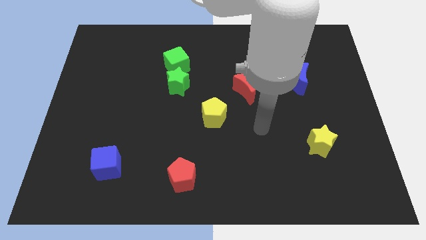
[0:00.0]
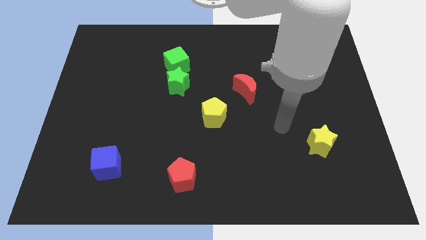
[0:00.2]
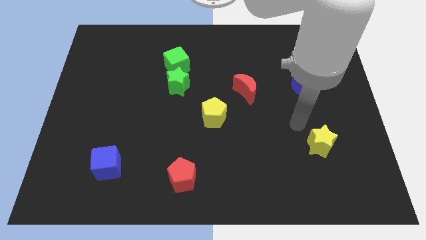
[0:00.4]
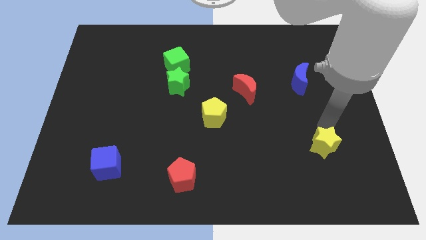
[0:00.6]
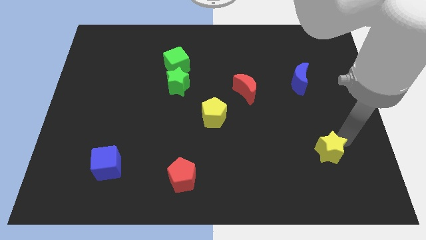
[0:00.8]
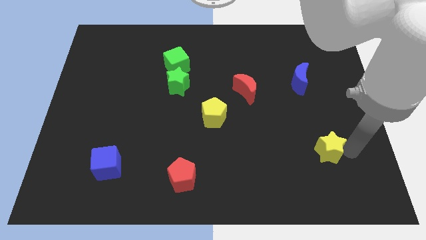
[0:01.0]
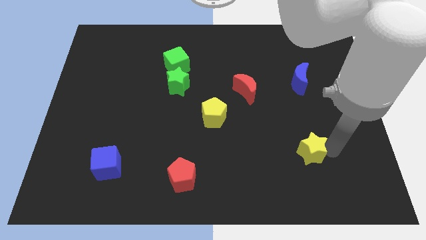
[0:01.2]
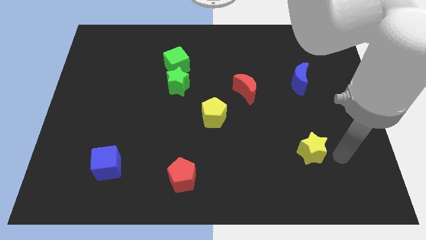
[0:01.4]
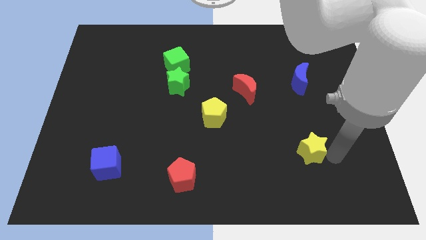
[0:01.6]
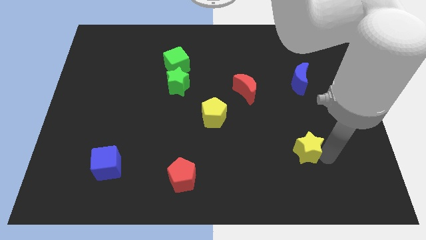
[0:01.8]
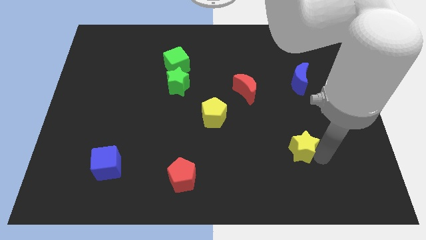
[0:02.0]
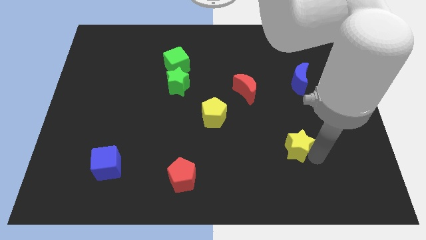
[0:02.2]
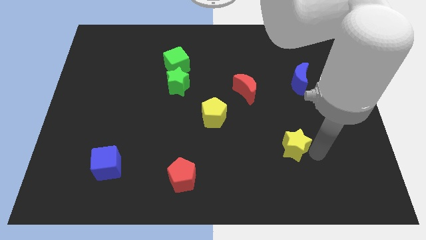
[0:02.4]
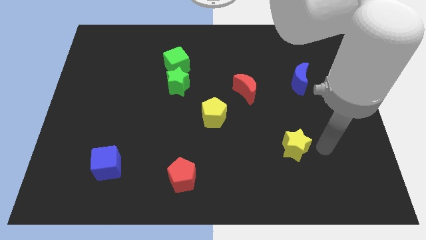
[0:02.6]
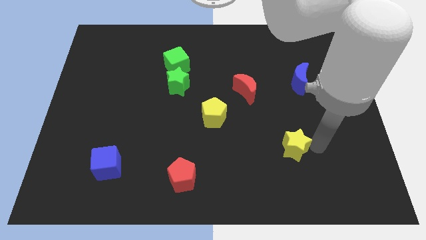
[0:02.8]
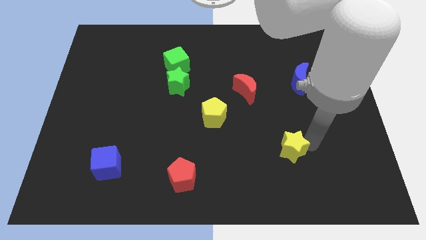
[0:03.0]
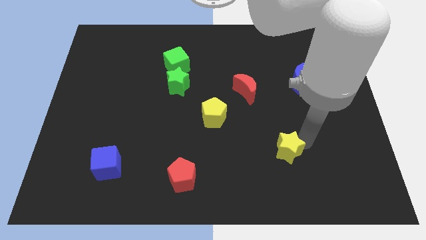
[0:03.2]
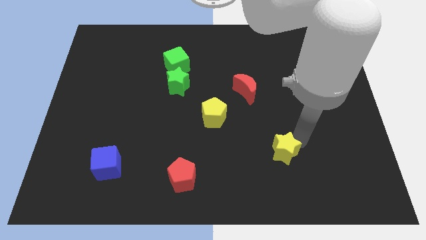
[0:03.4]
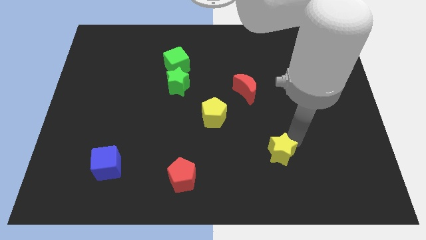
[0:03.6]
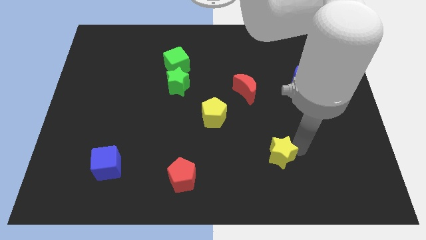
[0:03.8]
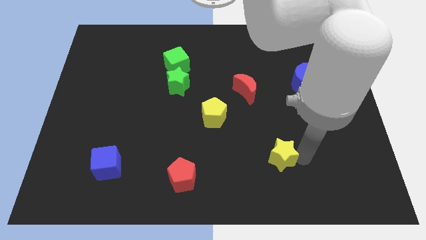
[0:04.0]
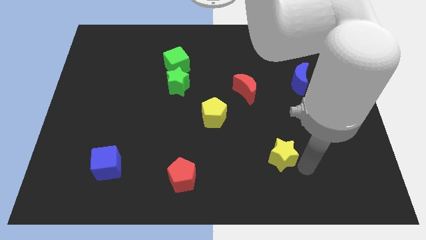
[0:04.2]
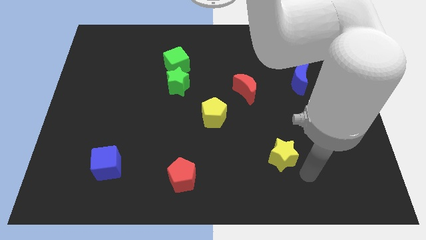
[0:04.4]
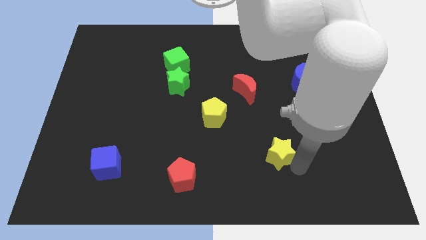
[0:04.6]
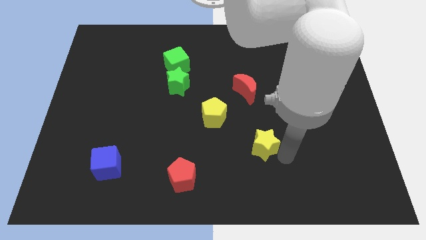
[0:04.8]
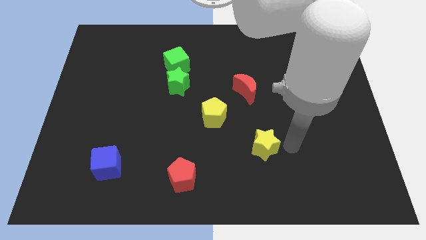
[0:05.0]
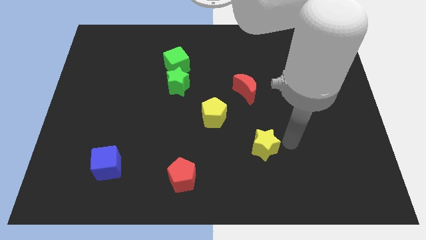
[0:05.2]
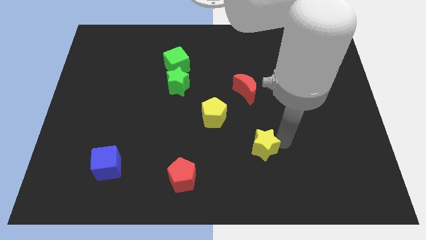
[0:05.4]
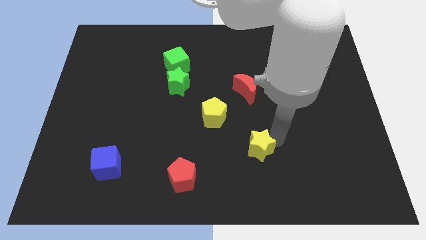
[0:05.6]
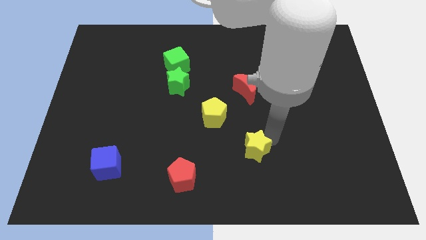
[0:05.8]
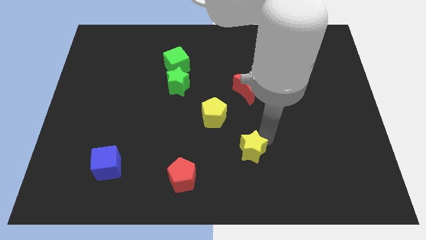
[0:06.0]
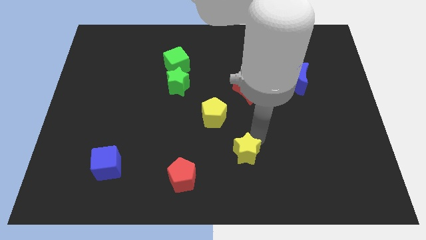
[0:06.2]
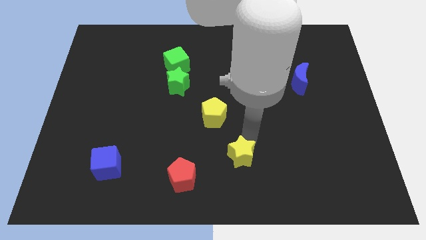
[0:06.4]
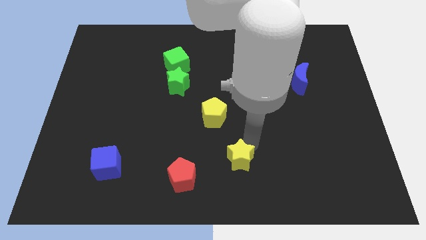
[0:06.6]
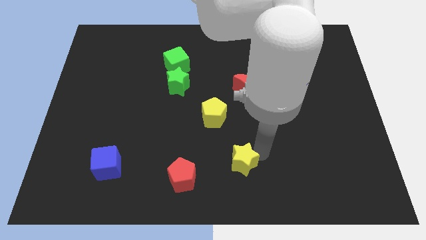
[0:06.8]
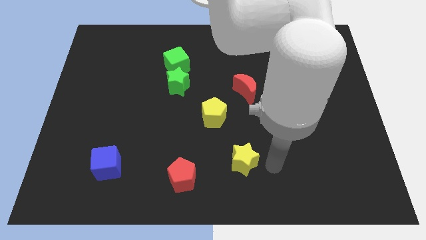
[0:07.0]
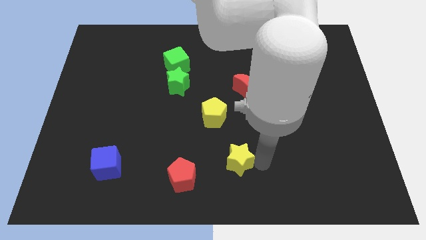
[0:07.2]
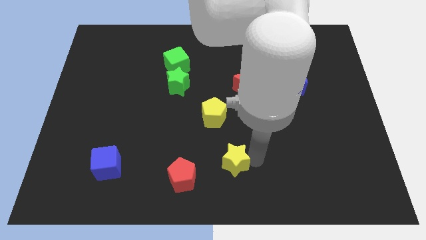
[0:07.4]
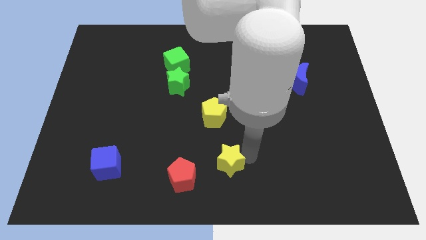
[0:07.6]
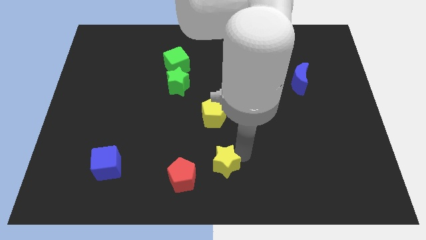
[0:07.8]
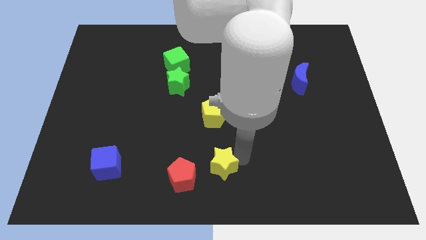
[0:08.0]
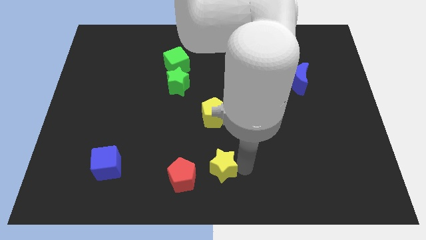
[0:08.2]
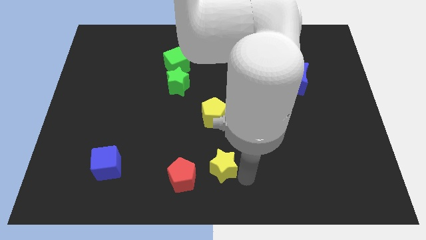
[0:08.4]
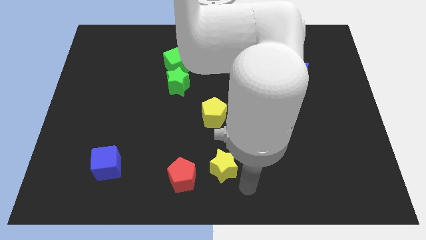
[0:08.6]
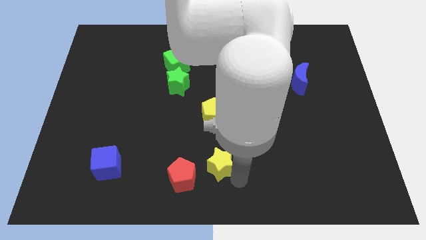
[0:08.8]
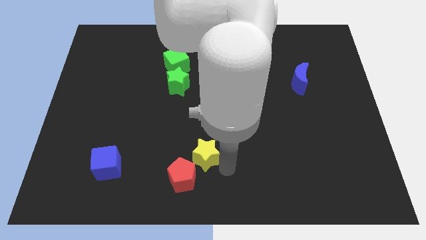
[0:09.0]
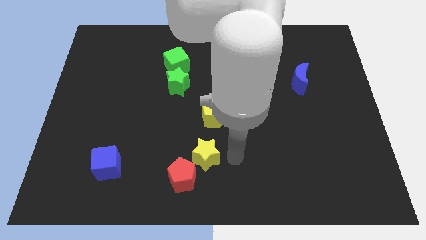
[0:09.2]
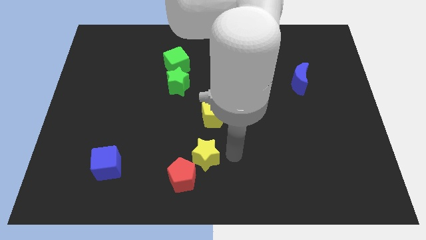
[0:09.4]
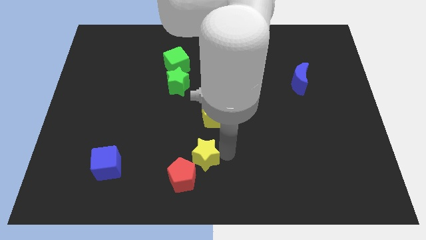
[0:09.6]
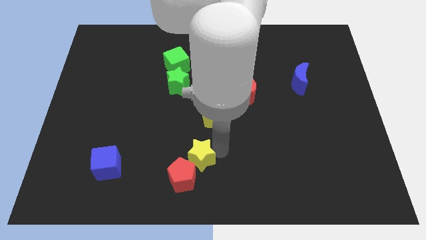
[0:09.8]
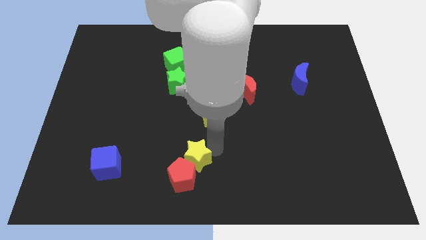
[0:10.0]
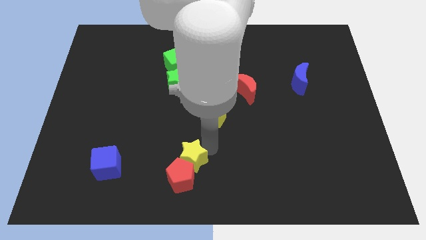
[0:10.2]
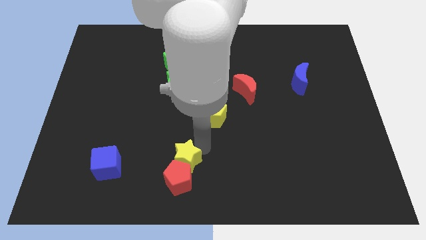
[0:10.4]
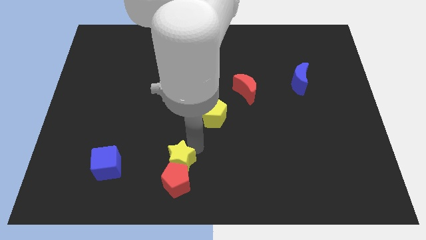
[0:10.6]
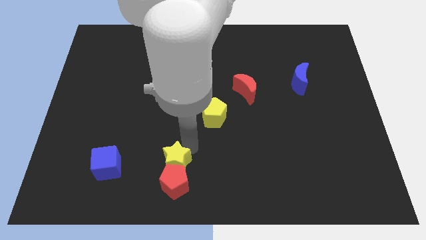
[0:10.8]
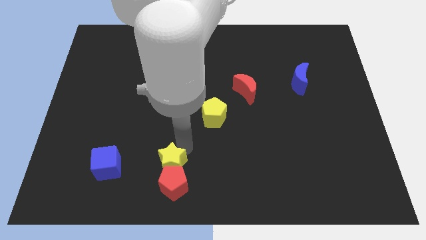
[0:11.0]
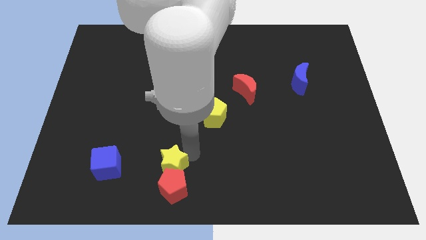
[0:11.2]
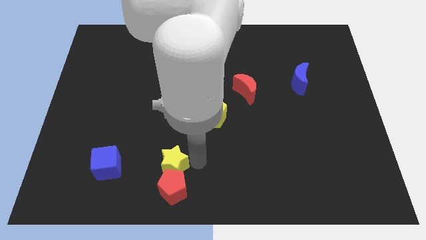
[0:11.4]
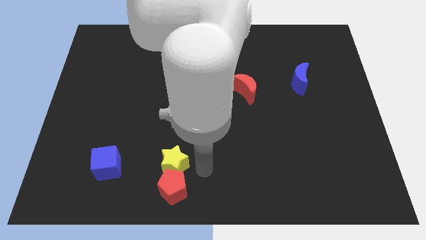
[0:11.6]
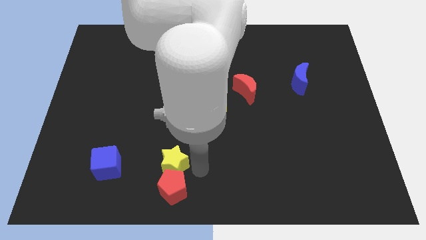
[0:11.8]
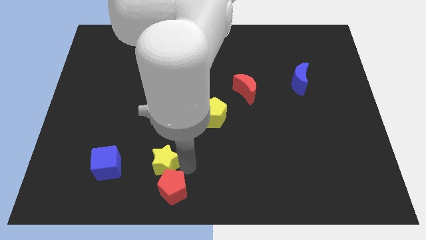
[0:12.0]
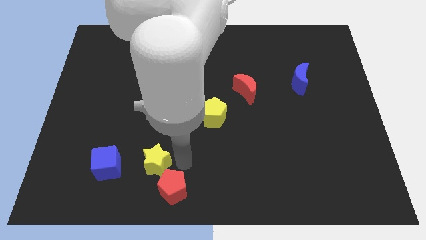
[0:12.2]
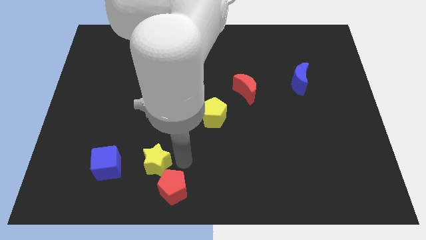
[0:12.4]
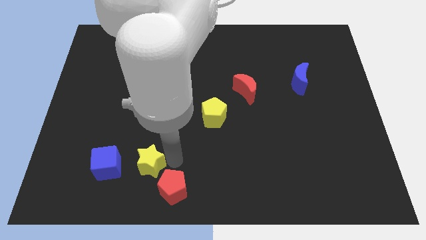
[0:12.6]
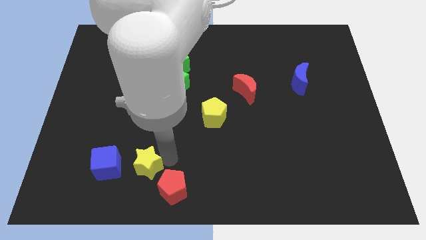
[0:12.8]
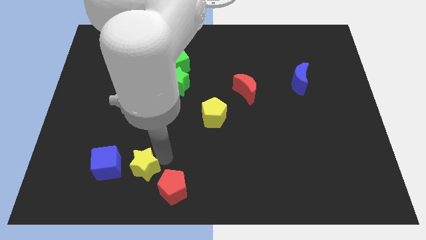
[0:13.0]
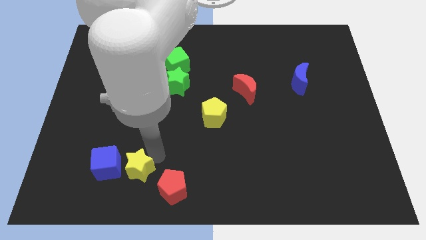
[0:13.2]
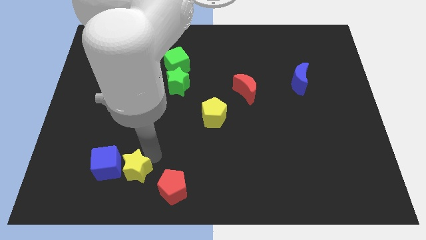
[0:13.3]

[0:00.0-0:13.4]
push the yellow star close to the blue cube

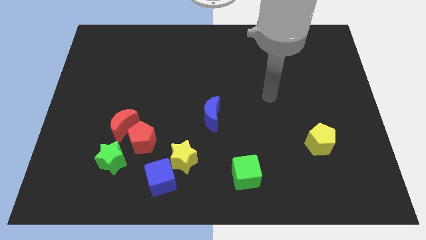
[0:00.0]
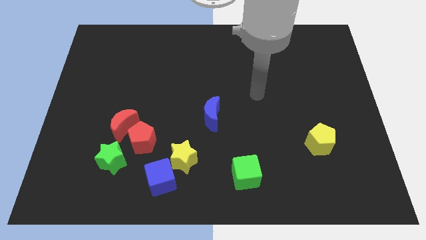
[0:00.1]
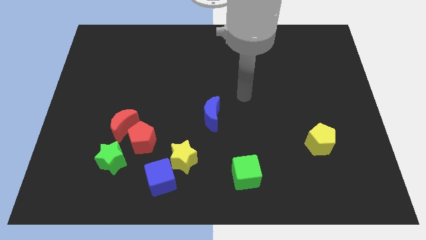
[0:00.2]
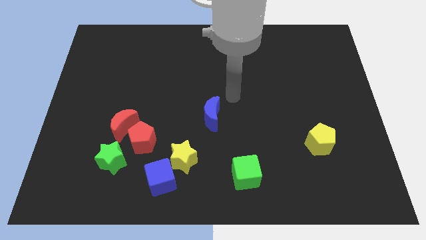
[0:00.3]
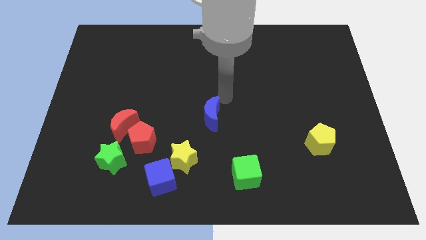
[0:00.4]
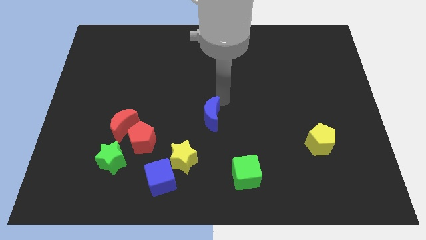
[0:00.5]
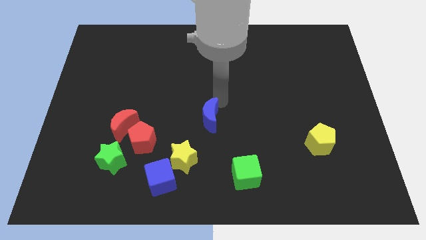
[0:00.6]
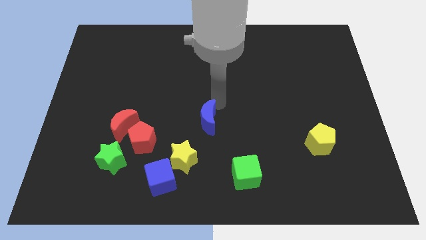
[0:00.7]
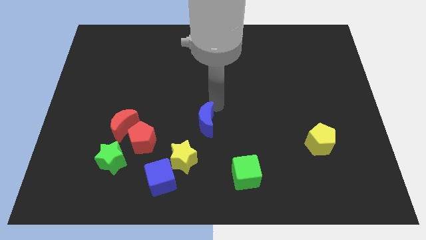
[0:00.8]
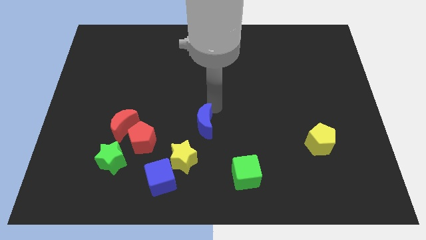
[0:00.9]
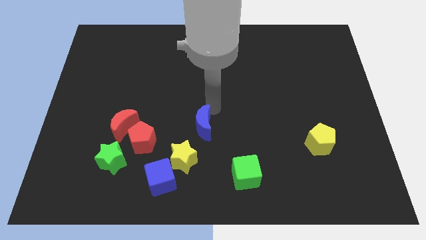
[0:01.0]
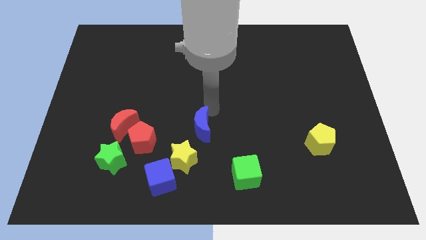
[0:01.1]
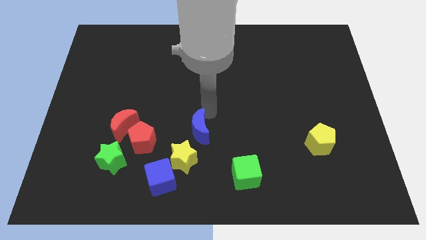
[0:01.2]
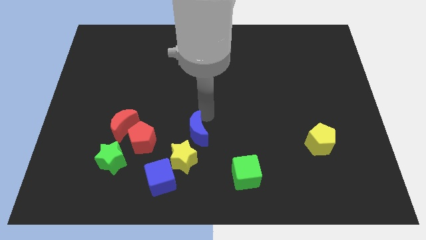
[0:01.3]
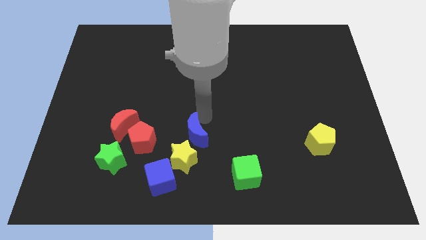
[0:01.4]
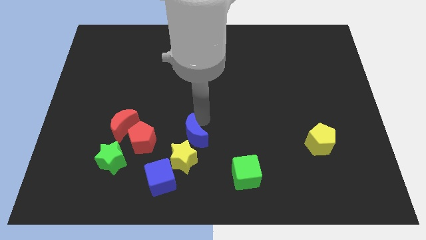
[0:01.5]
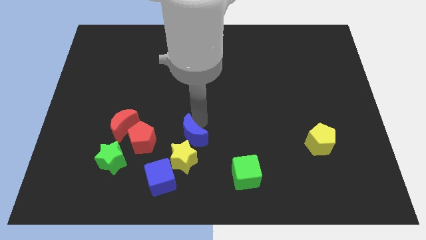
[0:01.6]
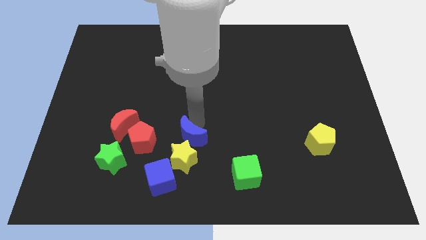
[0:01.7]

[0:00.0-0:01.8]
push the blue moon towards the yellow star
